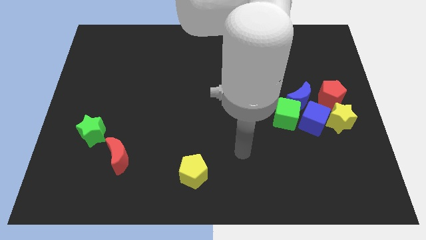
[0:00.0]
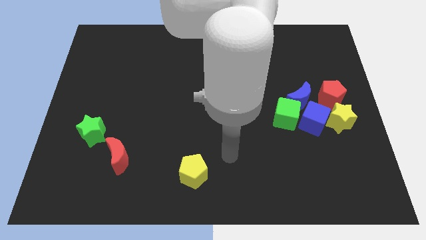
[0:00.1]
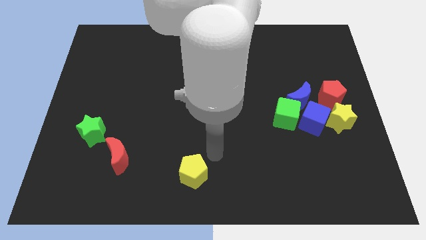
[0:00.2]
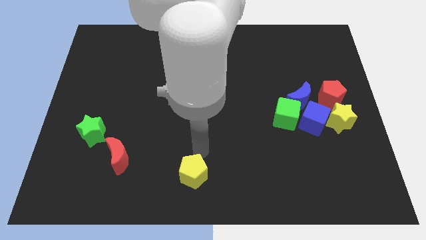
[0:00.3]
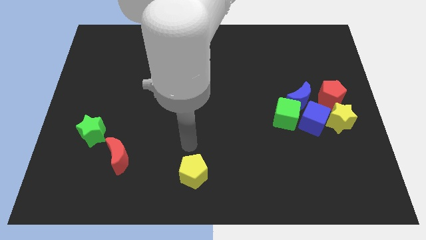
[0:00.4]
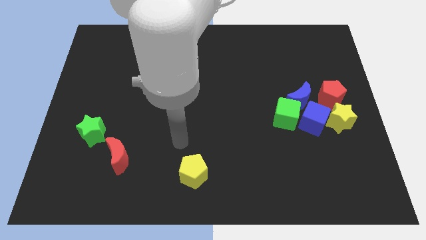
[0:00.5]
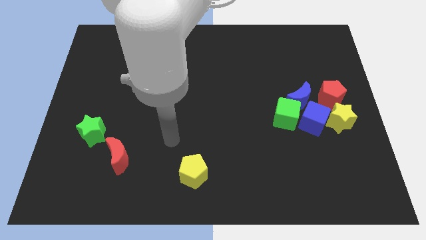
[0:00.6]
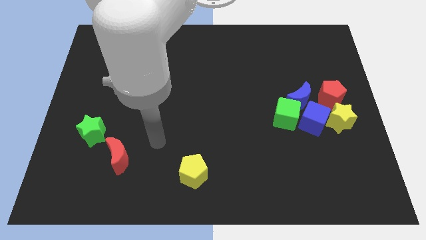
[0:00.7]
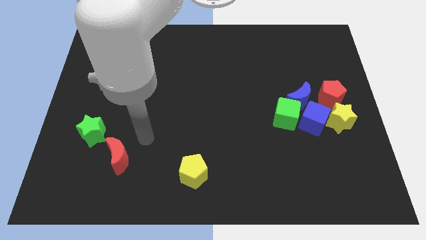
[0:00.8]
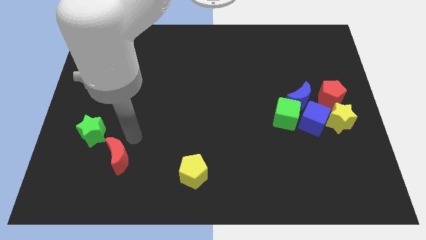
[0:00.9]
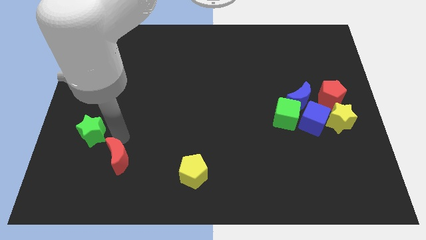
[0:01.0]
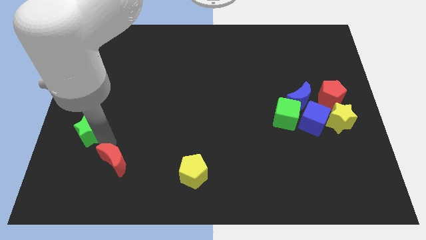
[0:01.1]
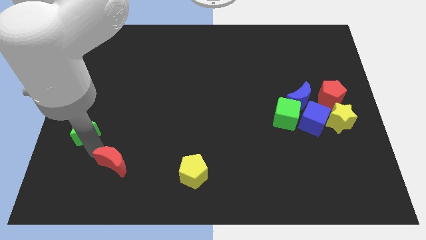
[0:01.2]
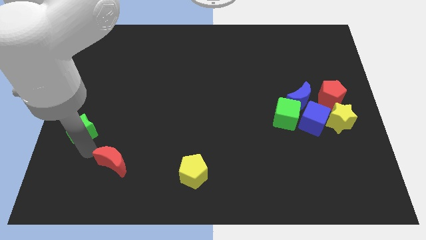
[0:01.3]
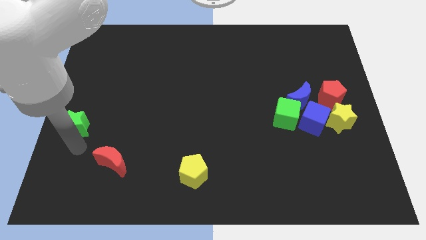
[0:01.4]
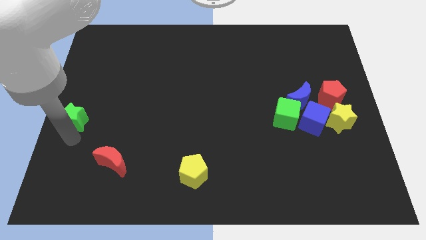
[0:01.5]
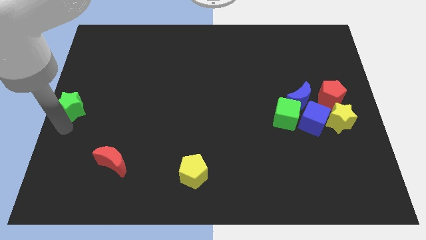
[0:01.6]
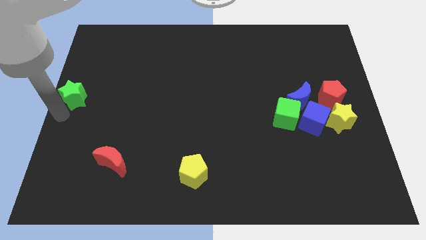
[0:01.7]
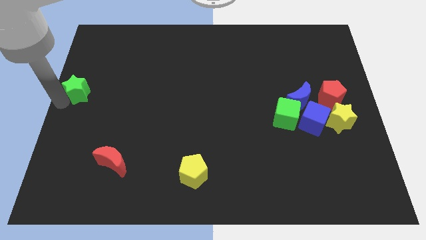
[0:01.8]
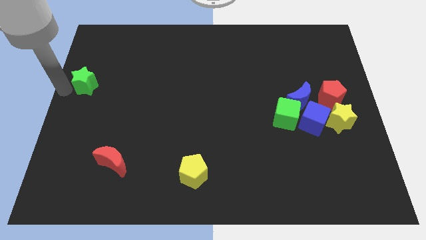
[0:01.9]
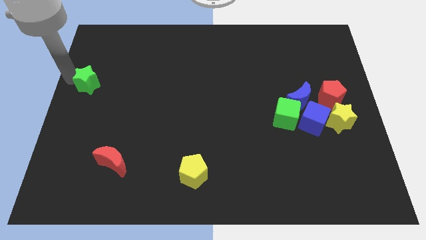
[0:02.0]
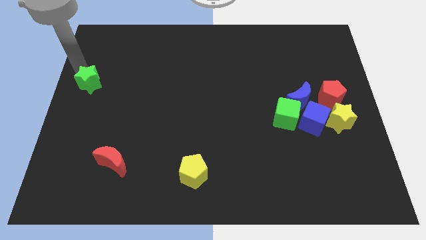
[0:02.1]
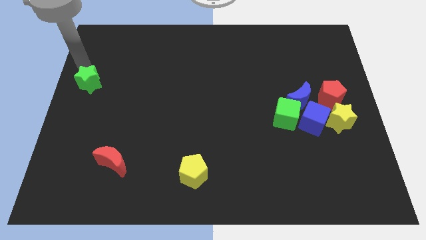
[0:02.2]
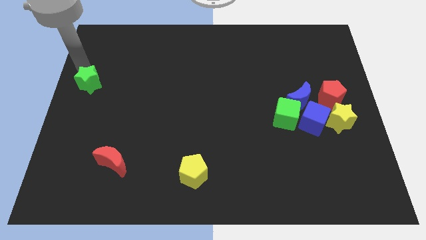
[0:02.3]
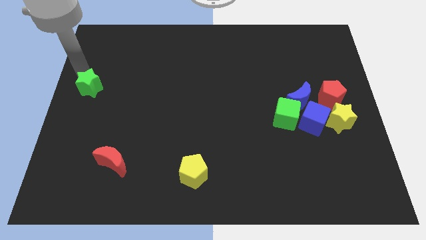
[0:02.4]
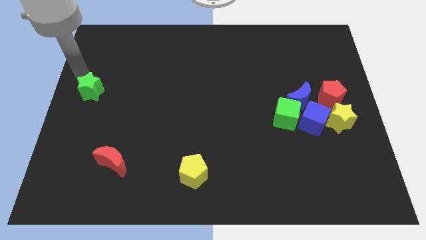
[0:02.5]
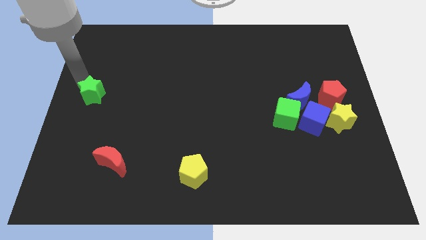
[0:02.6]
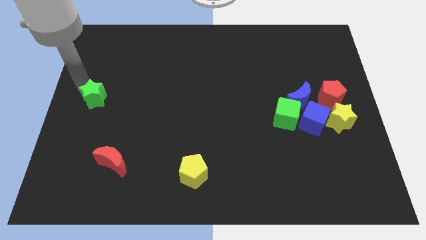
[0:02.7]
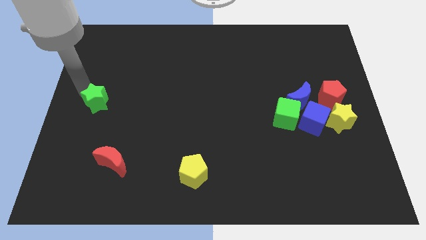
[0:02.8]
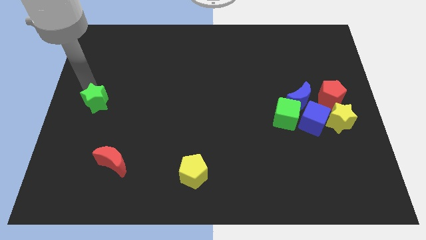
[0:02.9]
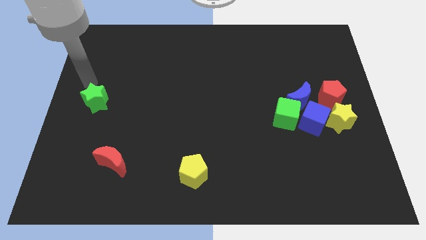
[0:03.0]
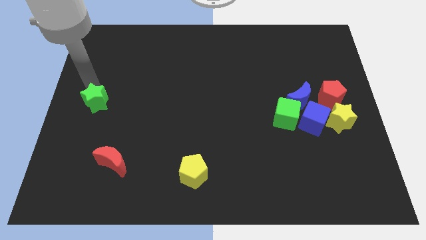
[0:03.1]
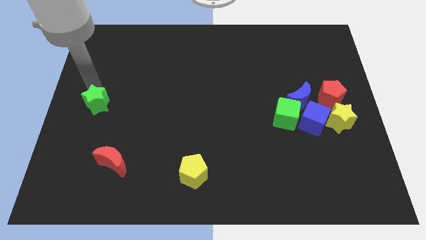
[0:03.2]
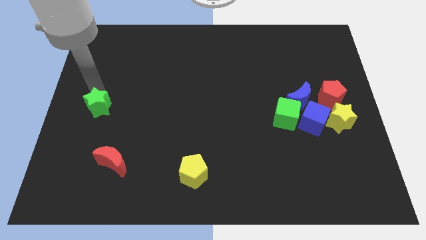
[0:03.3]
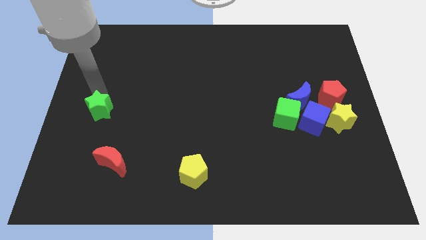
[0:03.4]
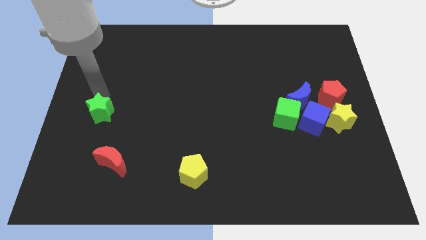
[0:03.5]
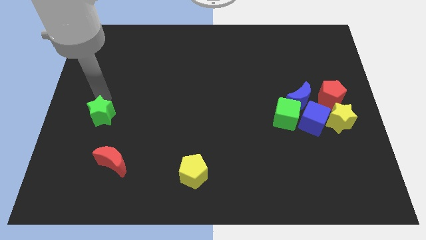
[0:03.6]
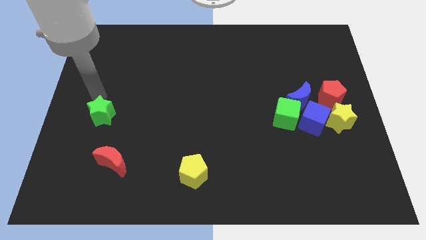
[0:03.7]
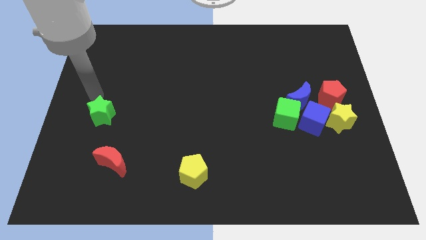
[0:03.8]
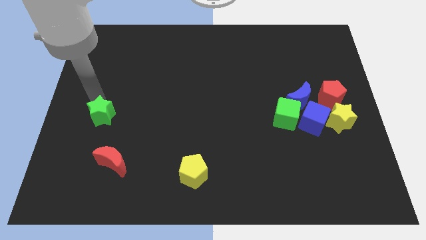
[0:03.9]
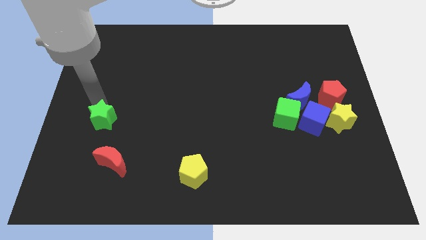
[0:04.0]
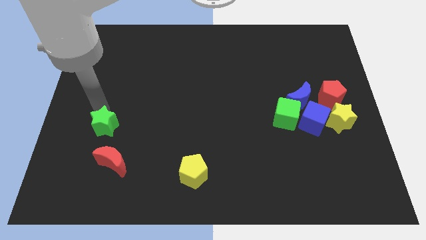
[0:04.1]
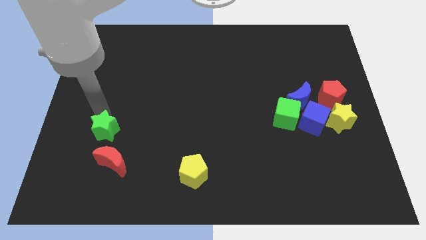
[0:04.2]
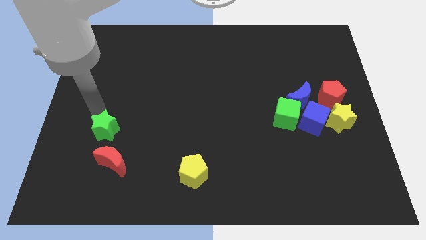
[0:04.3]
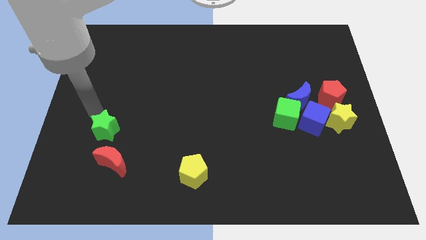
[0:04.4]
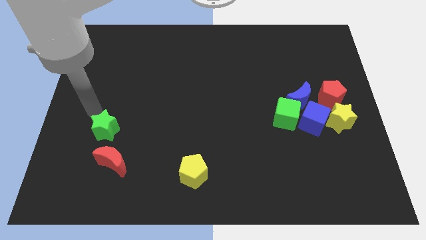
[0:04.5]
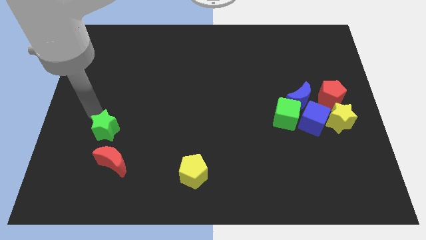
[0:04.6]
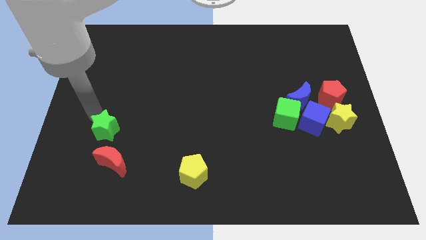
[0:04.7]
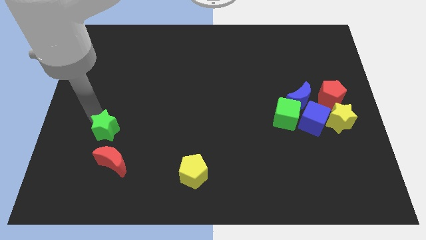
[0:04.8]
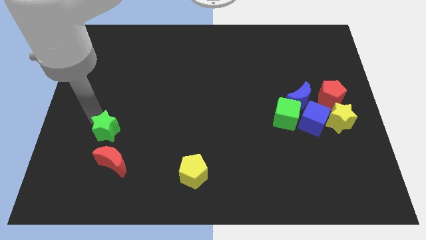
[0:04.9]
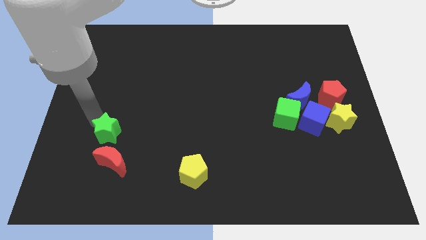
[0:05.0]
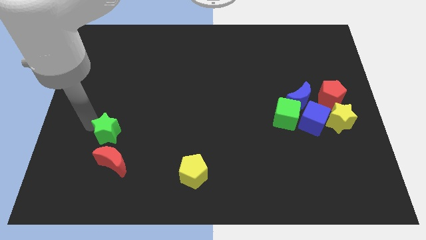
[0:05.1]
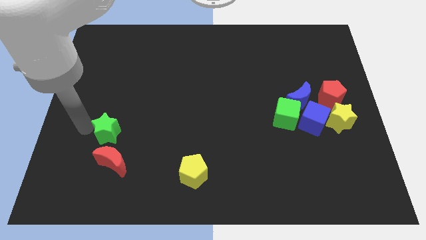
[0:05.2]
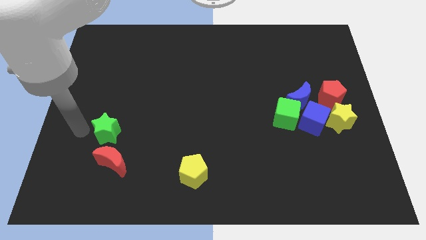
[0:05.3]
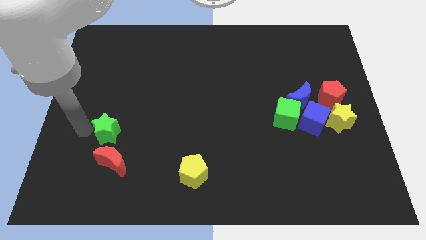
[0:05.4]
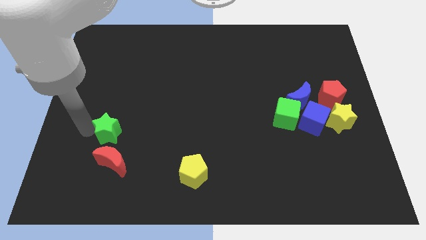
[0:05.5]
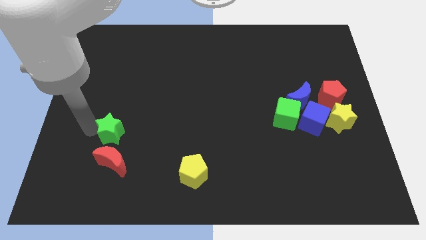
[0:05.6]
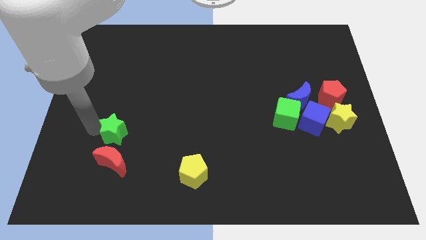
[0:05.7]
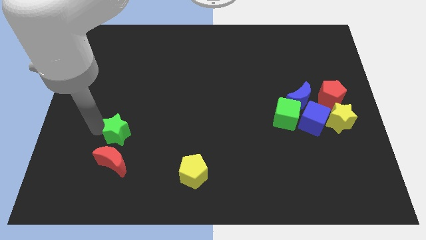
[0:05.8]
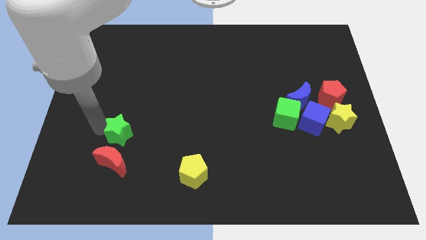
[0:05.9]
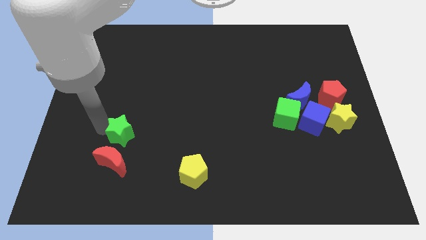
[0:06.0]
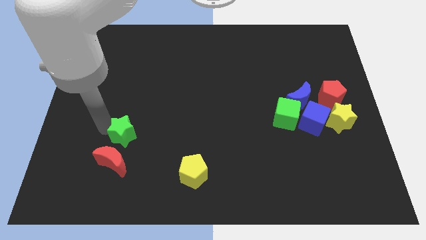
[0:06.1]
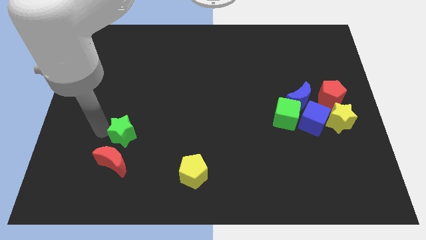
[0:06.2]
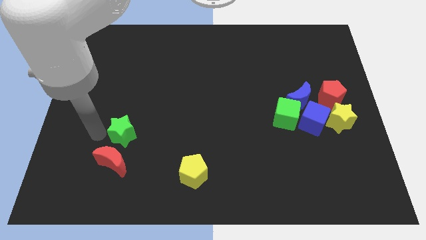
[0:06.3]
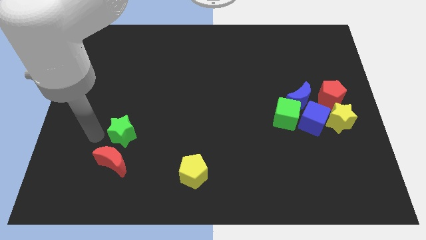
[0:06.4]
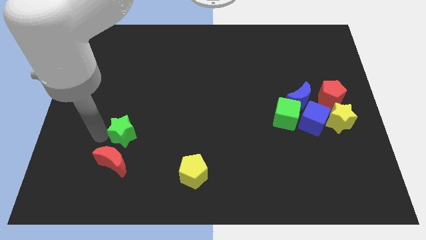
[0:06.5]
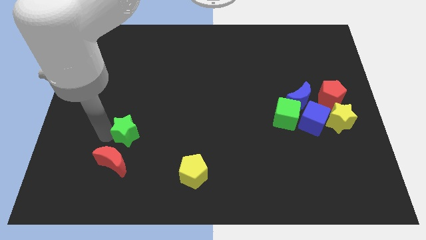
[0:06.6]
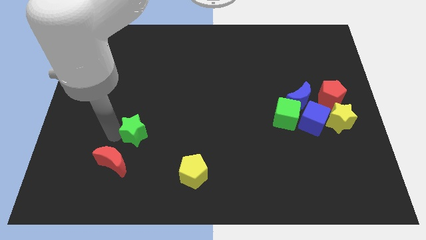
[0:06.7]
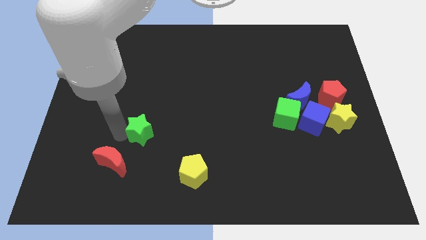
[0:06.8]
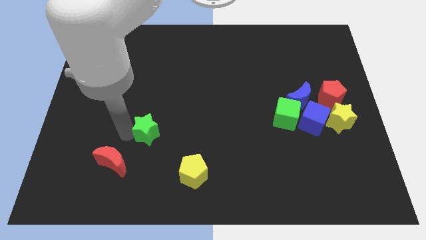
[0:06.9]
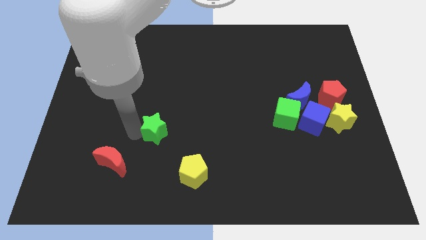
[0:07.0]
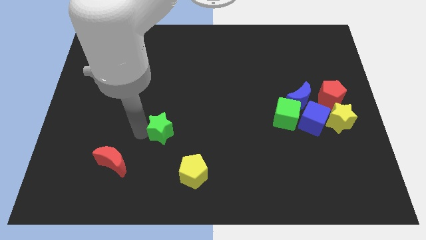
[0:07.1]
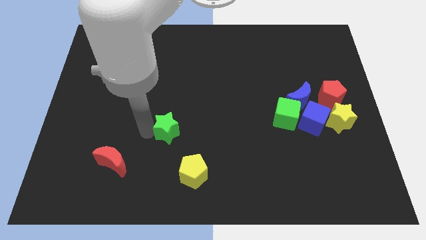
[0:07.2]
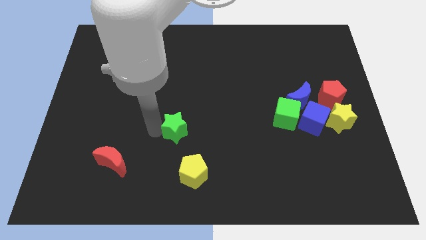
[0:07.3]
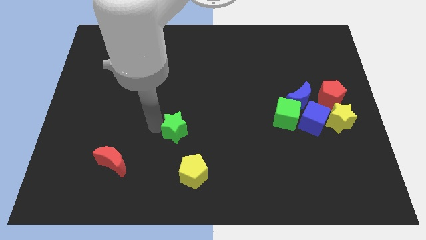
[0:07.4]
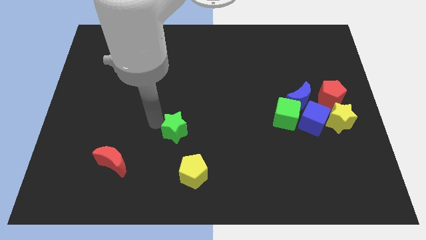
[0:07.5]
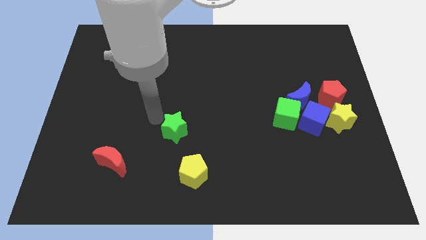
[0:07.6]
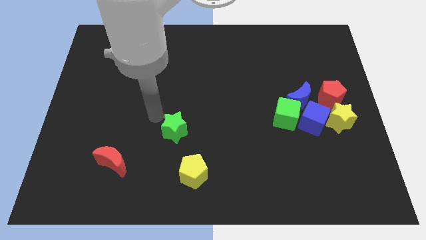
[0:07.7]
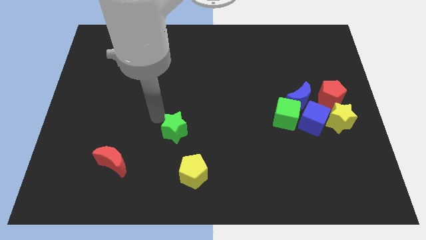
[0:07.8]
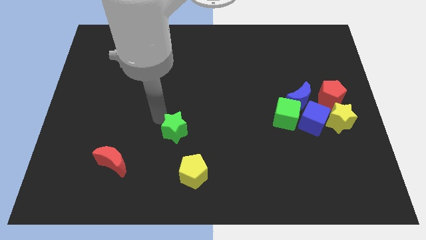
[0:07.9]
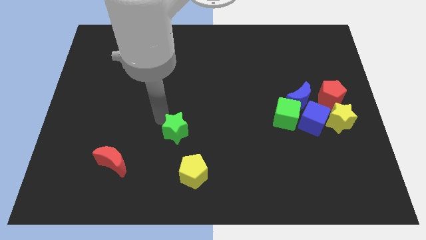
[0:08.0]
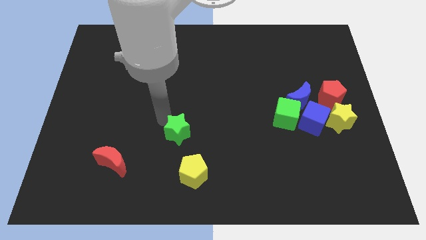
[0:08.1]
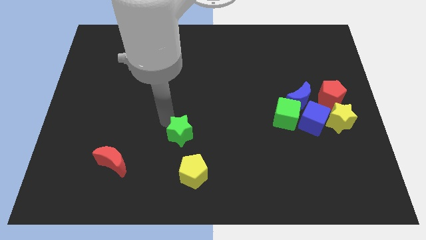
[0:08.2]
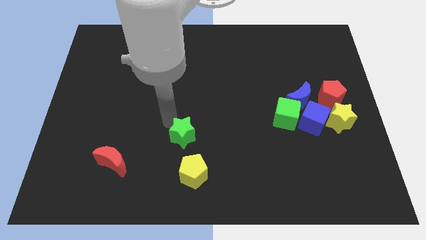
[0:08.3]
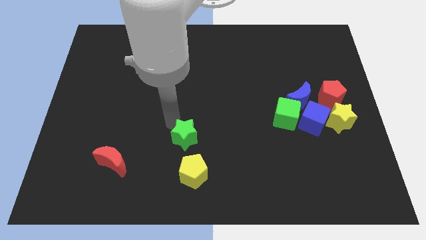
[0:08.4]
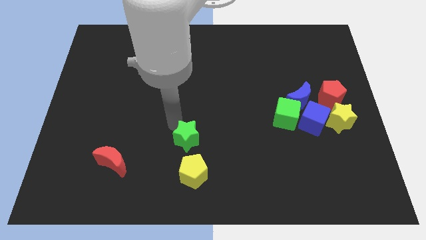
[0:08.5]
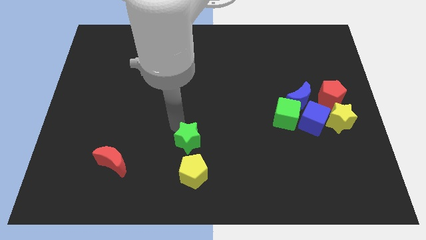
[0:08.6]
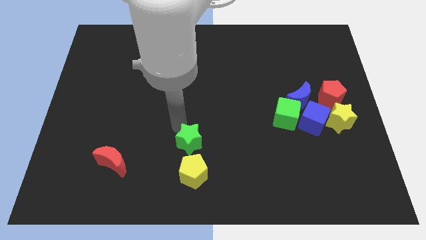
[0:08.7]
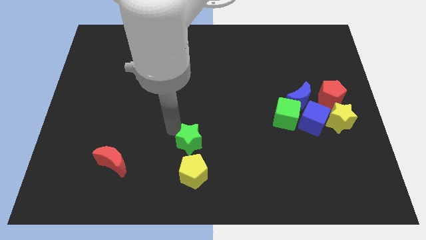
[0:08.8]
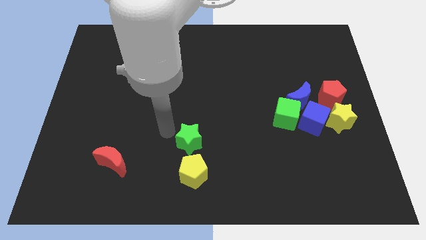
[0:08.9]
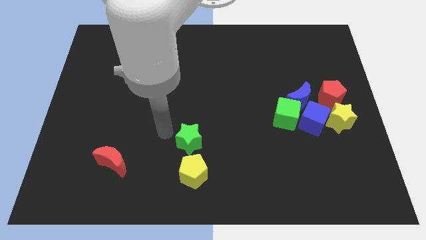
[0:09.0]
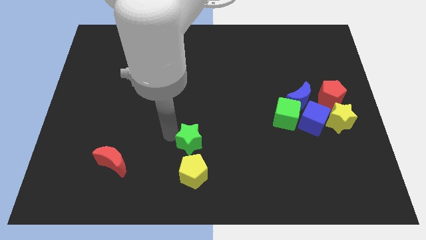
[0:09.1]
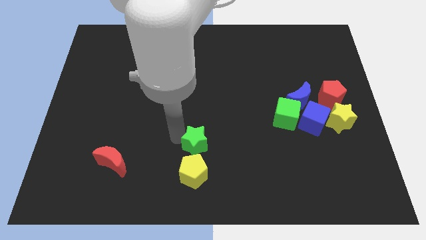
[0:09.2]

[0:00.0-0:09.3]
slide the green star to the top right side of the yellow pentagon
